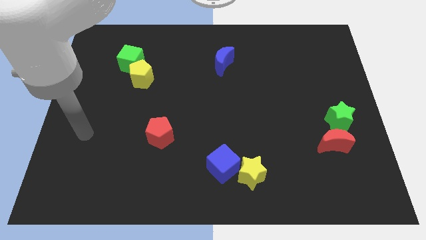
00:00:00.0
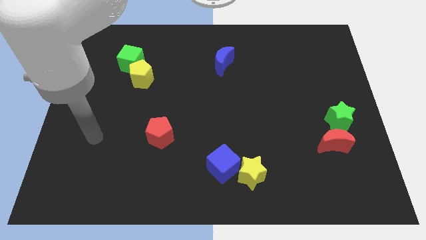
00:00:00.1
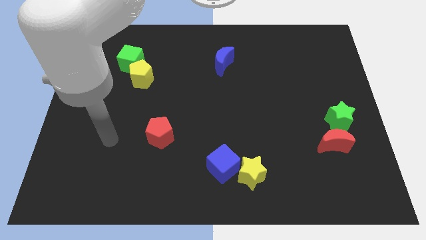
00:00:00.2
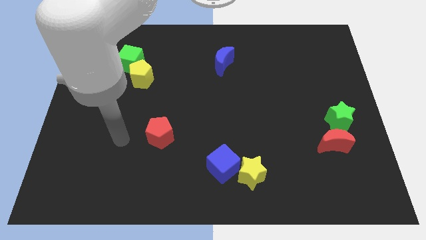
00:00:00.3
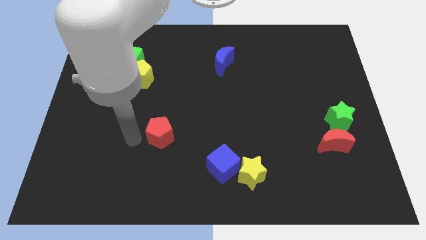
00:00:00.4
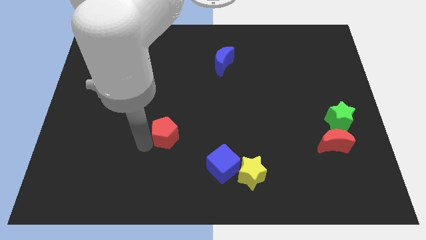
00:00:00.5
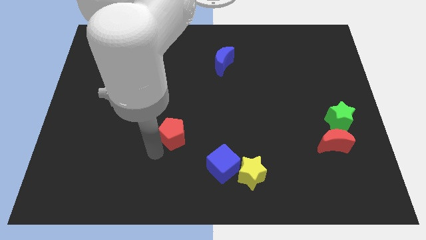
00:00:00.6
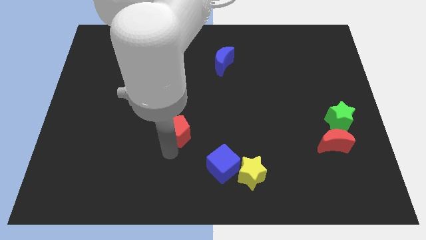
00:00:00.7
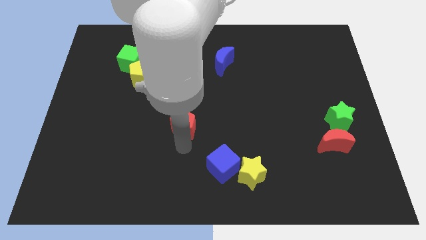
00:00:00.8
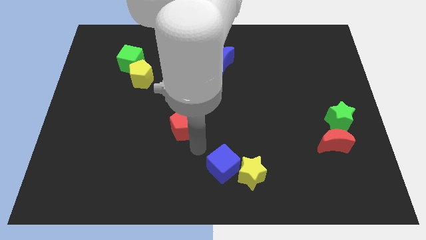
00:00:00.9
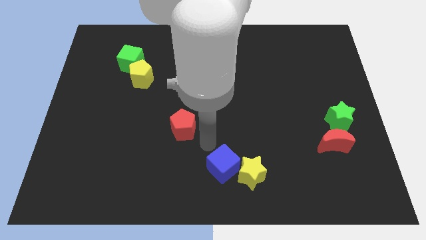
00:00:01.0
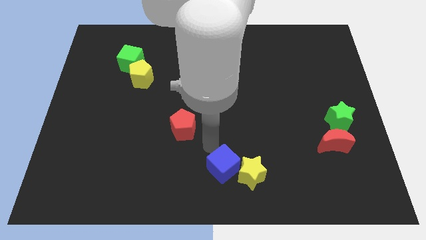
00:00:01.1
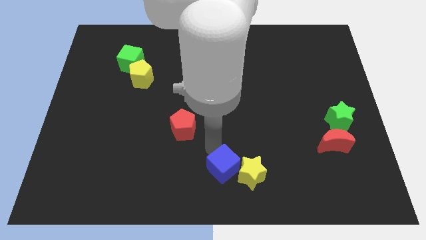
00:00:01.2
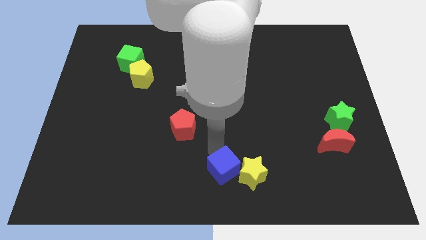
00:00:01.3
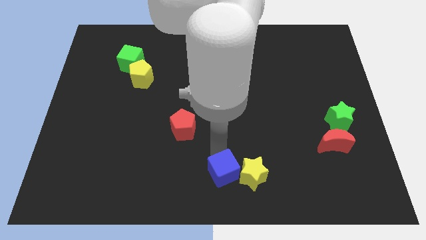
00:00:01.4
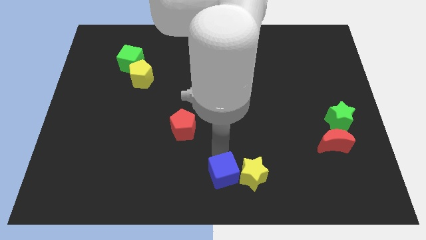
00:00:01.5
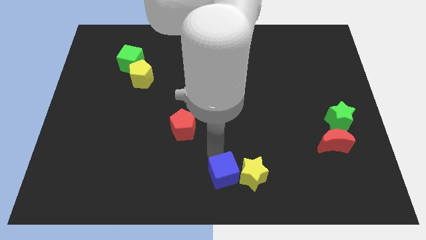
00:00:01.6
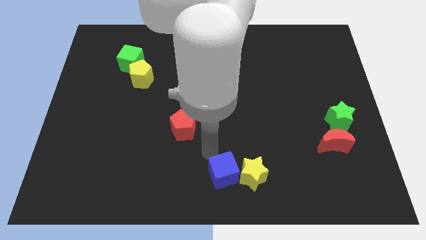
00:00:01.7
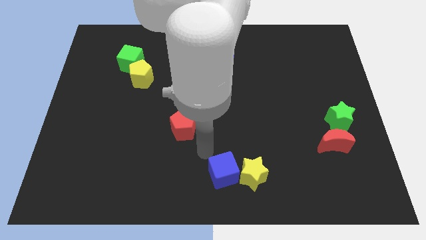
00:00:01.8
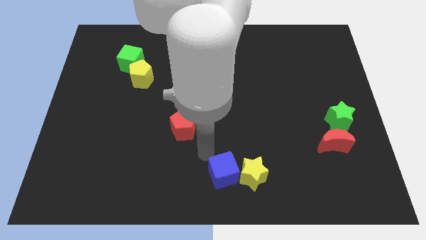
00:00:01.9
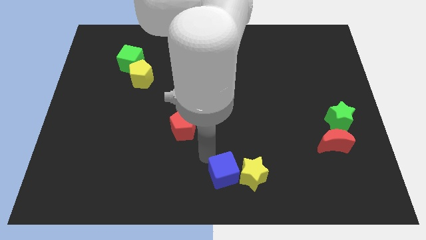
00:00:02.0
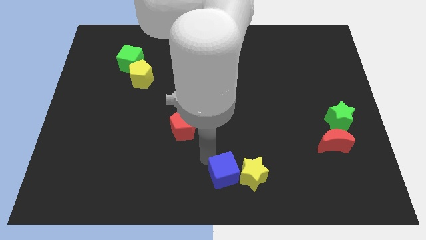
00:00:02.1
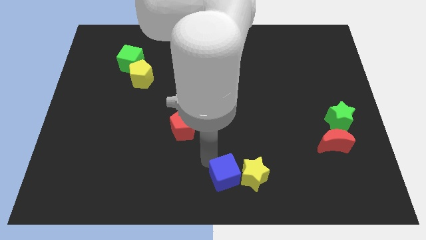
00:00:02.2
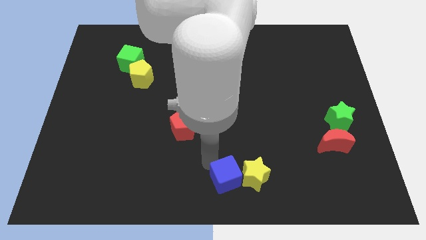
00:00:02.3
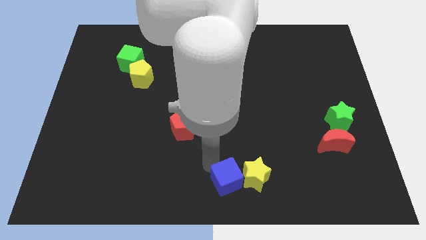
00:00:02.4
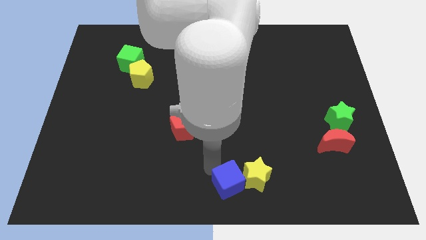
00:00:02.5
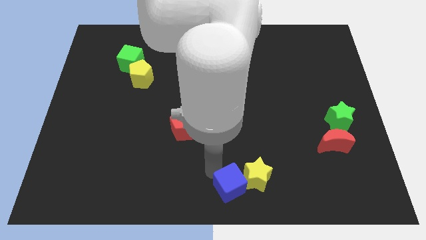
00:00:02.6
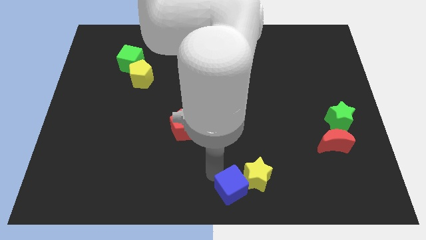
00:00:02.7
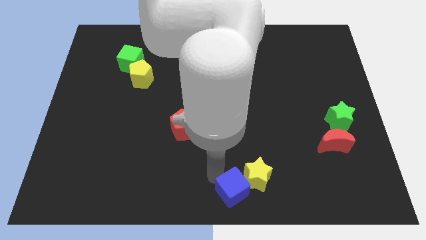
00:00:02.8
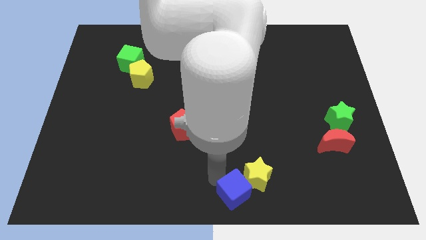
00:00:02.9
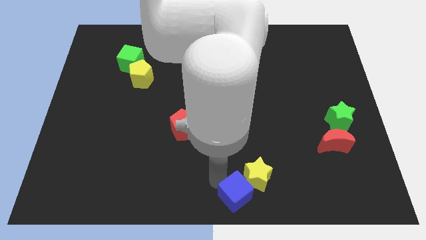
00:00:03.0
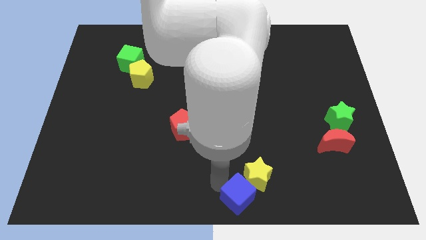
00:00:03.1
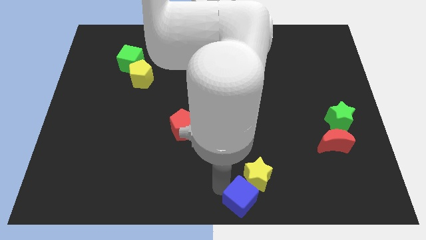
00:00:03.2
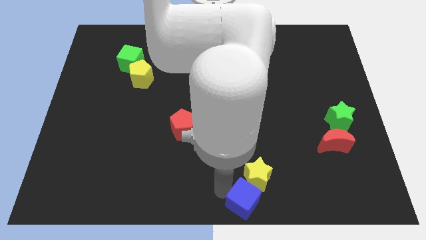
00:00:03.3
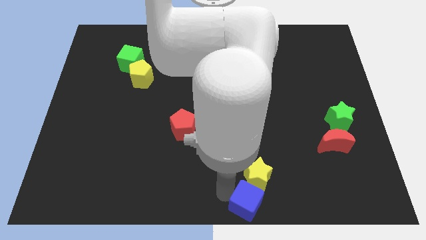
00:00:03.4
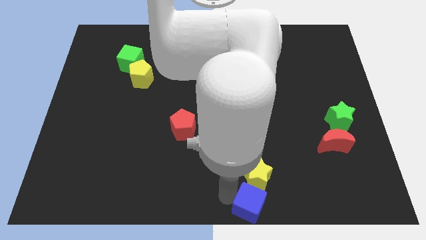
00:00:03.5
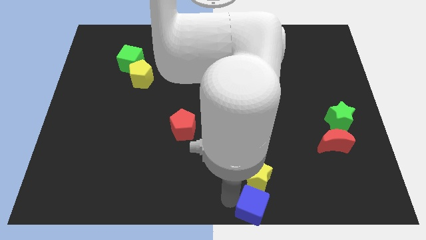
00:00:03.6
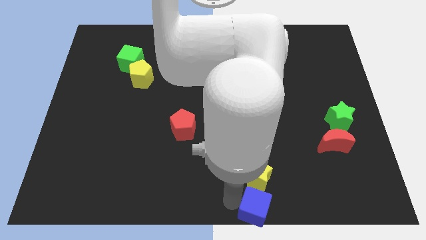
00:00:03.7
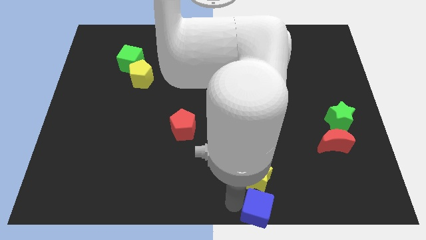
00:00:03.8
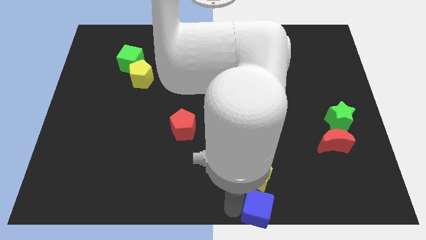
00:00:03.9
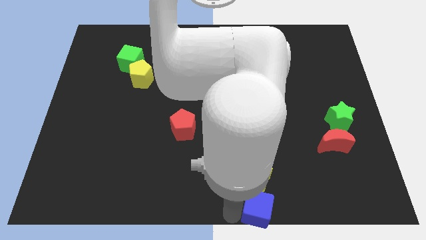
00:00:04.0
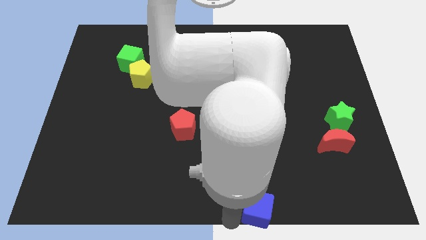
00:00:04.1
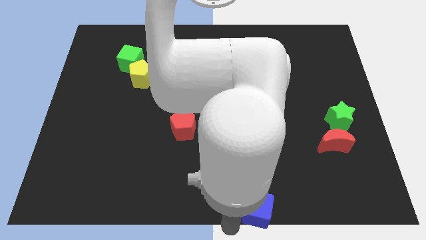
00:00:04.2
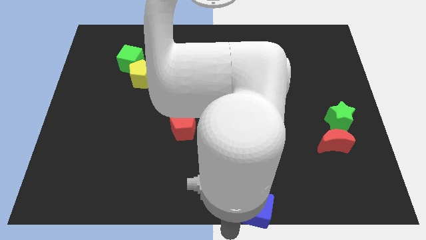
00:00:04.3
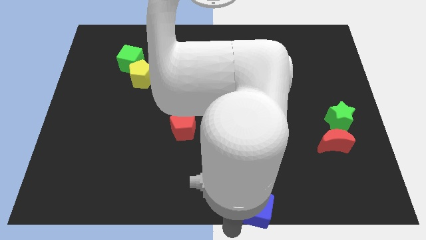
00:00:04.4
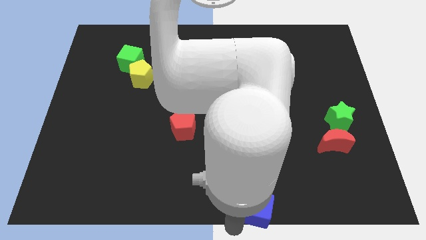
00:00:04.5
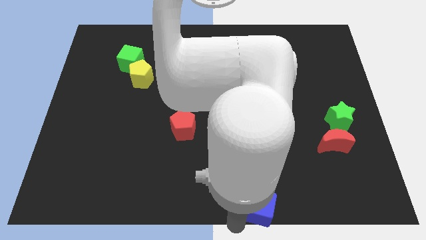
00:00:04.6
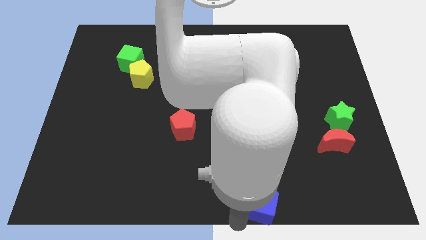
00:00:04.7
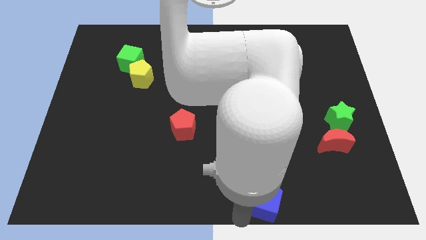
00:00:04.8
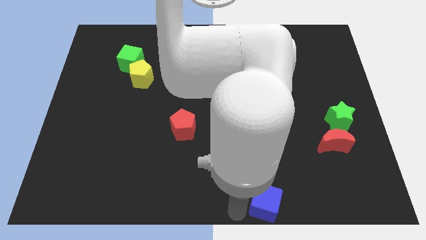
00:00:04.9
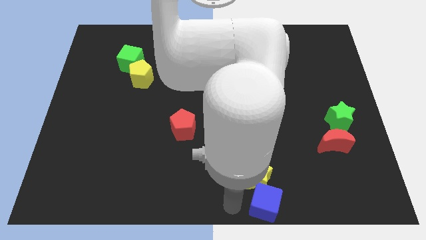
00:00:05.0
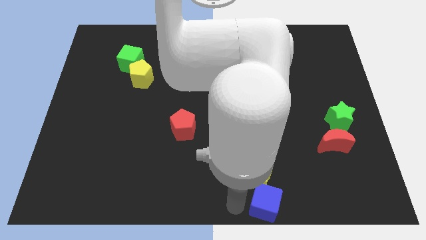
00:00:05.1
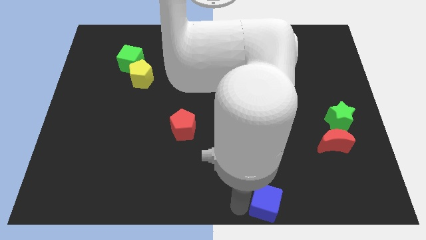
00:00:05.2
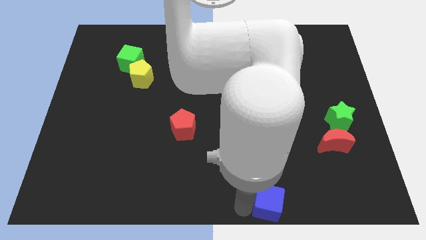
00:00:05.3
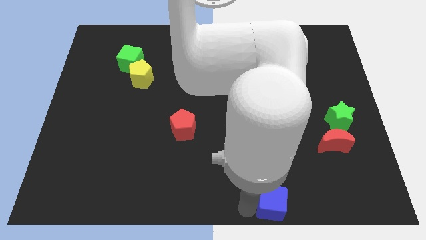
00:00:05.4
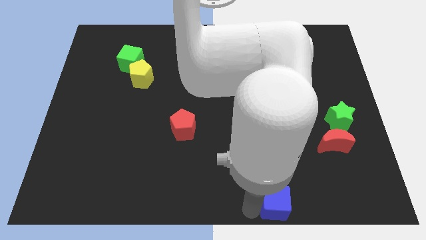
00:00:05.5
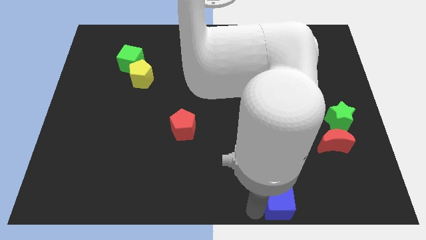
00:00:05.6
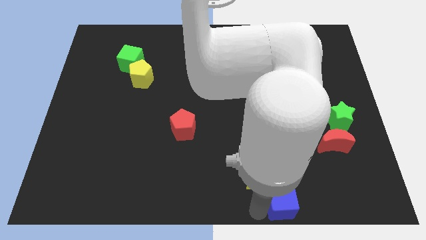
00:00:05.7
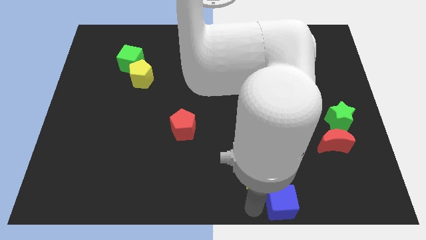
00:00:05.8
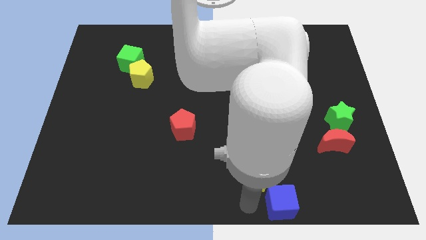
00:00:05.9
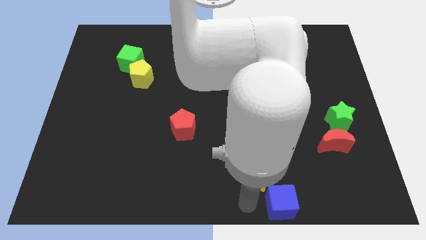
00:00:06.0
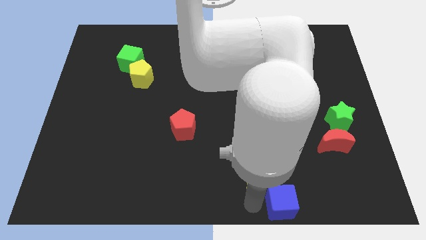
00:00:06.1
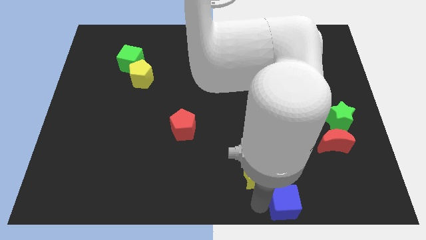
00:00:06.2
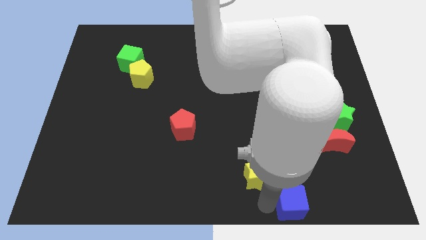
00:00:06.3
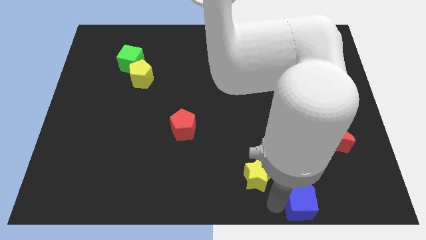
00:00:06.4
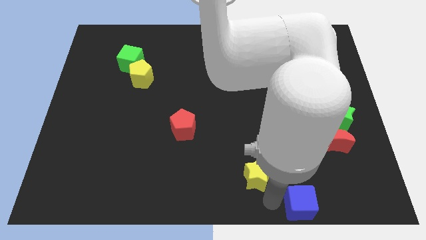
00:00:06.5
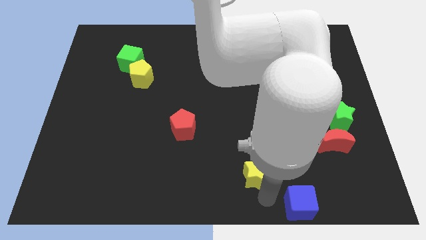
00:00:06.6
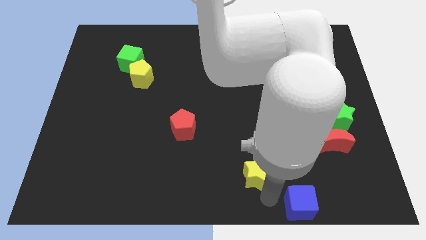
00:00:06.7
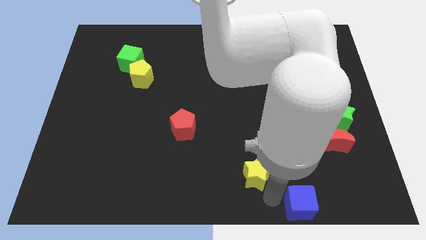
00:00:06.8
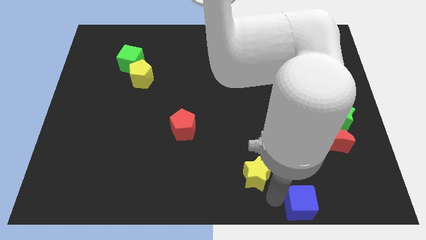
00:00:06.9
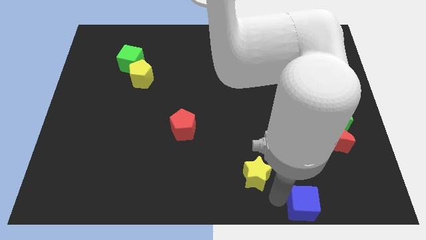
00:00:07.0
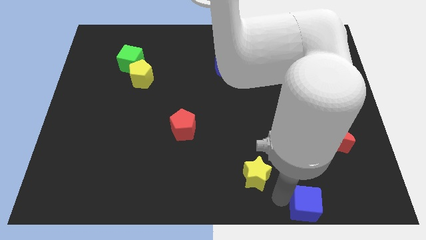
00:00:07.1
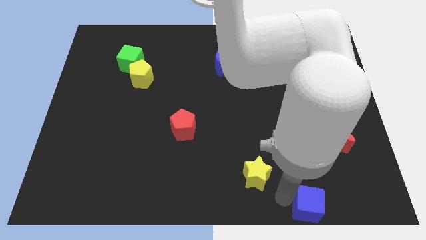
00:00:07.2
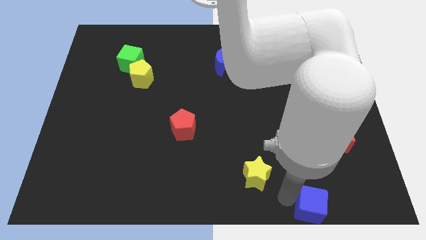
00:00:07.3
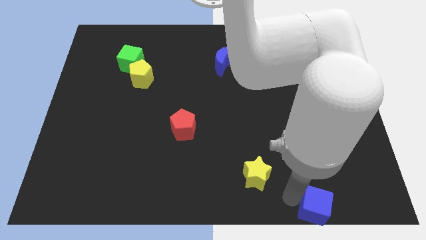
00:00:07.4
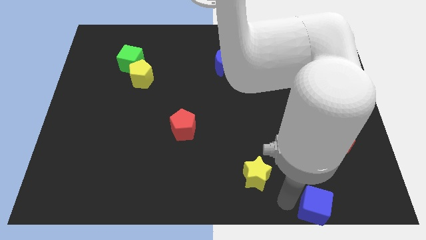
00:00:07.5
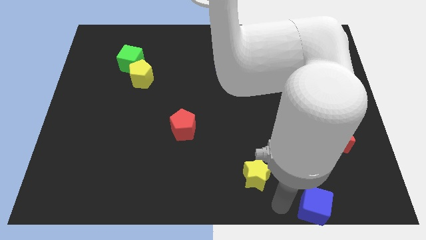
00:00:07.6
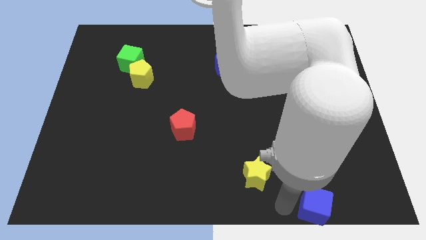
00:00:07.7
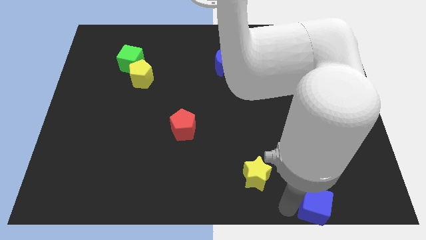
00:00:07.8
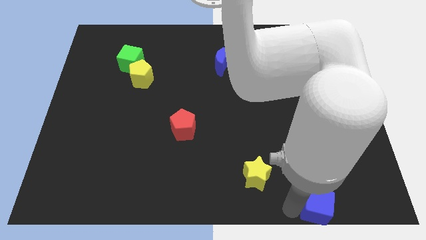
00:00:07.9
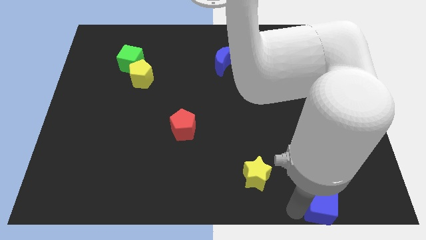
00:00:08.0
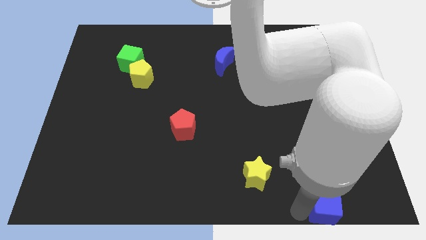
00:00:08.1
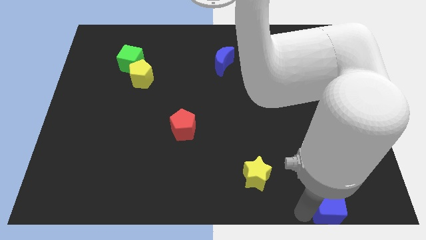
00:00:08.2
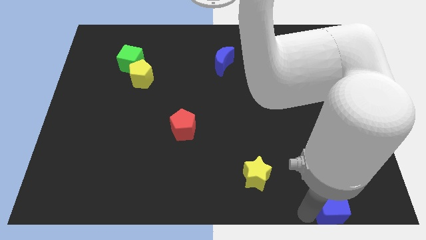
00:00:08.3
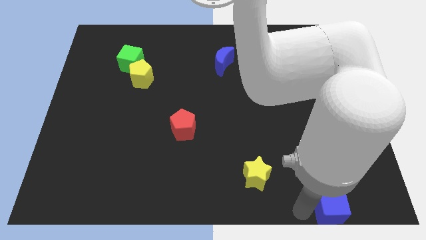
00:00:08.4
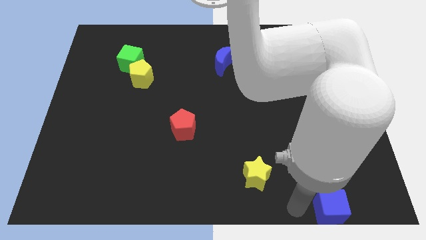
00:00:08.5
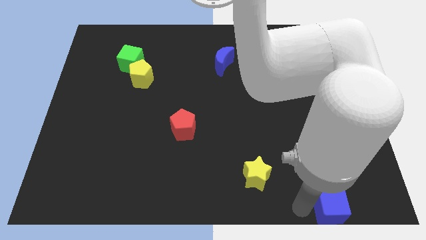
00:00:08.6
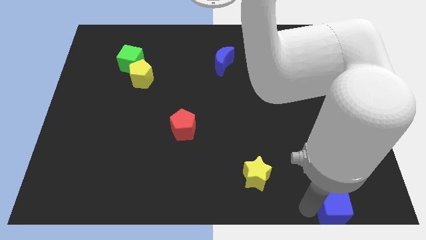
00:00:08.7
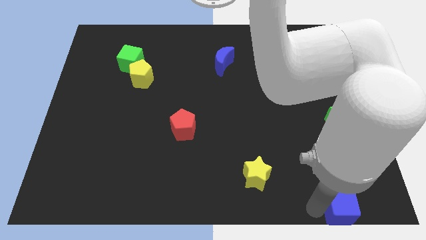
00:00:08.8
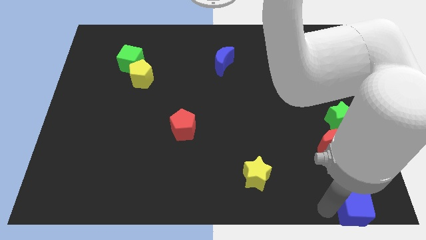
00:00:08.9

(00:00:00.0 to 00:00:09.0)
push the blue cube to the bottom right corner
